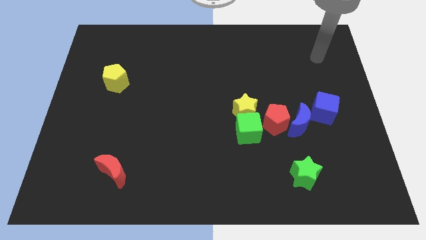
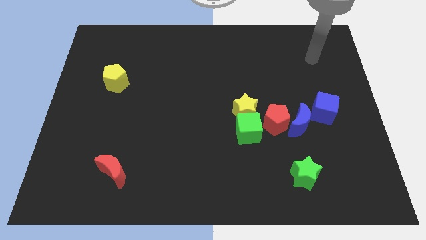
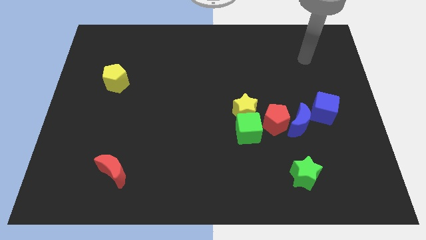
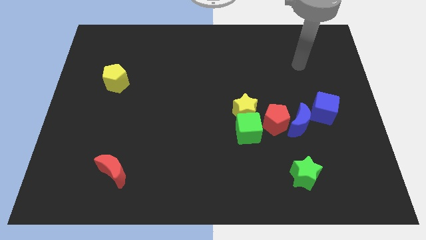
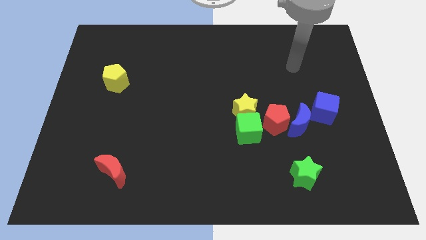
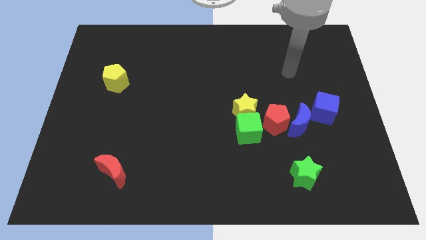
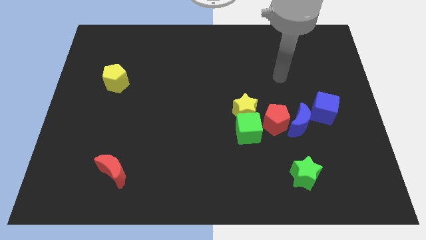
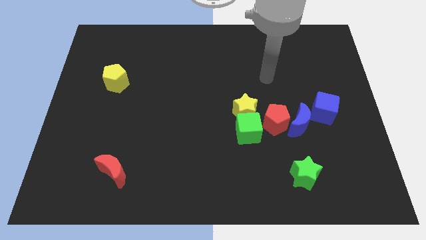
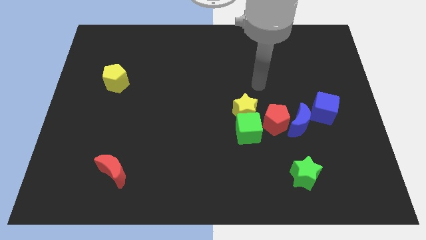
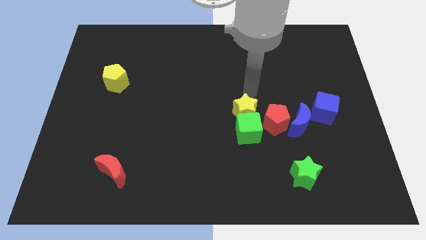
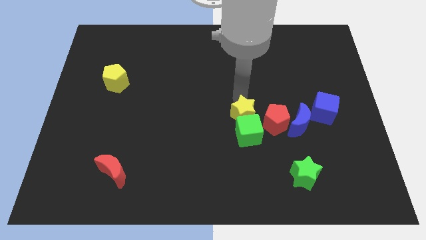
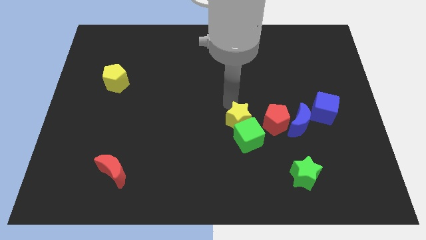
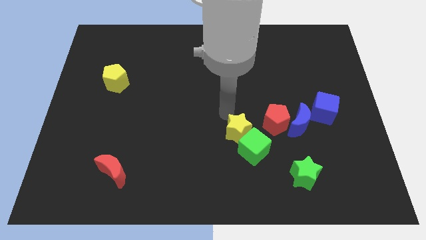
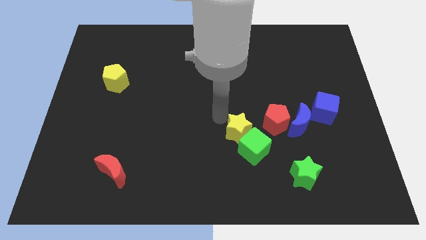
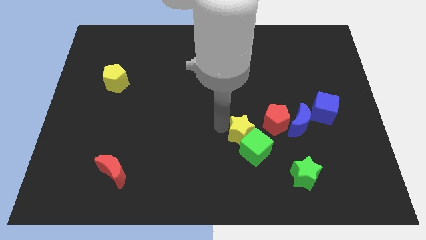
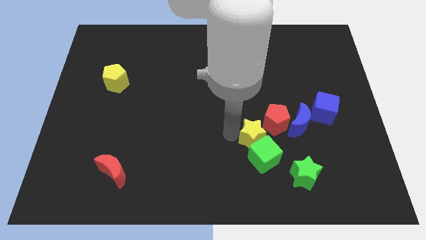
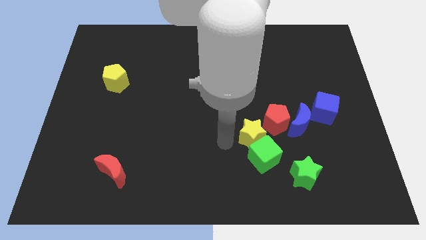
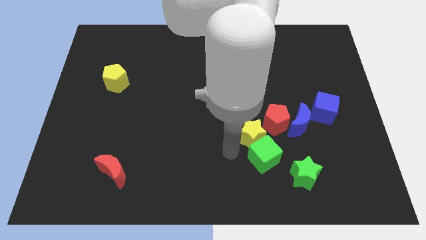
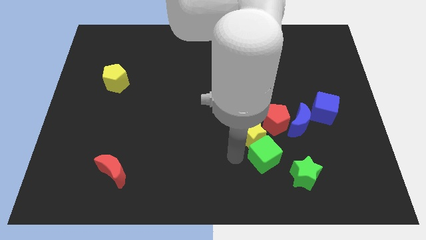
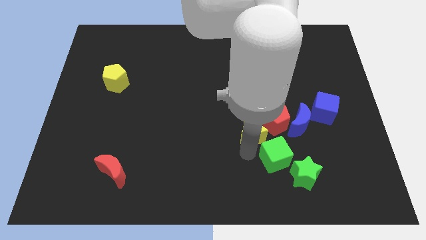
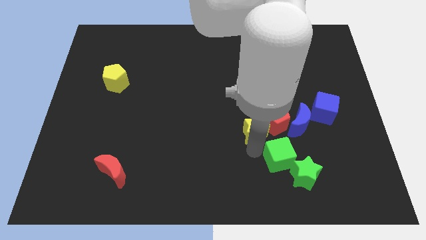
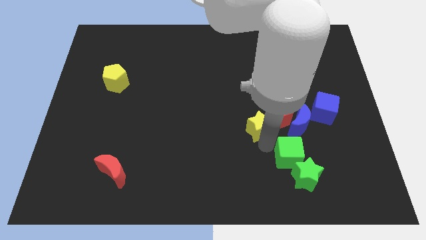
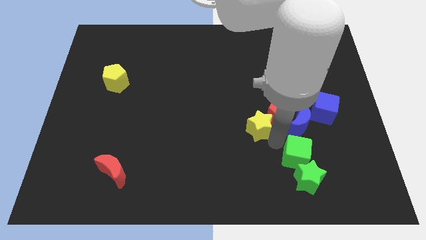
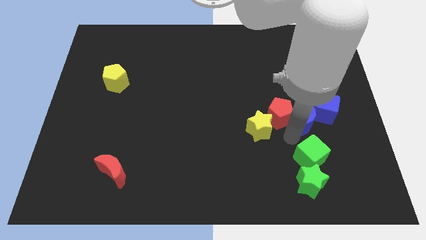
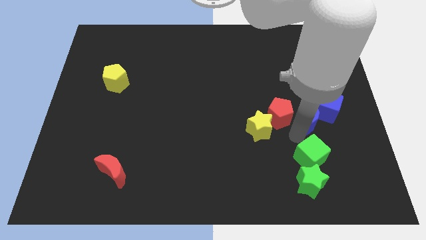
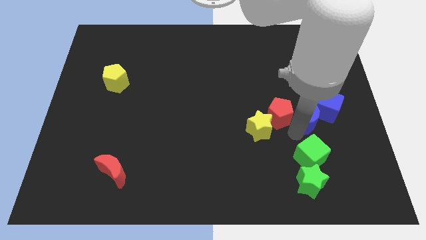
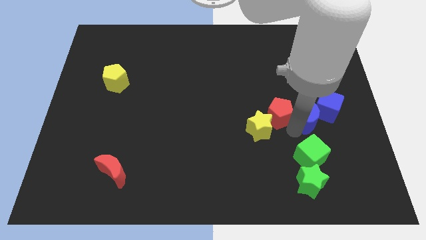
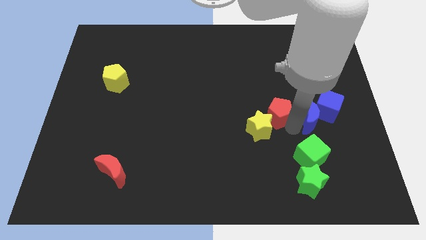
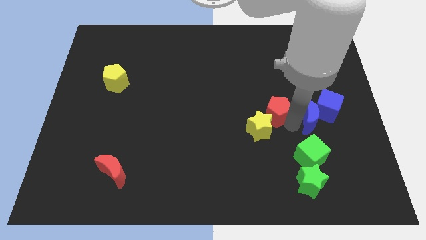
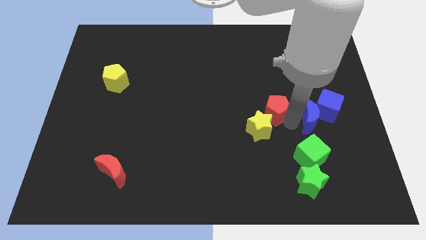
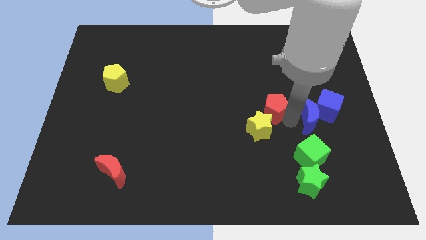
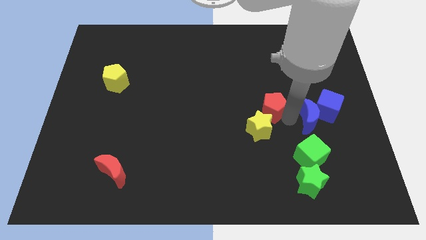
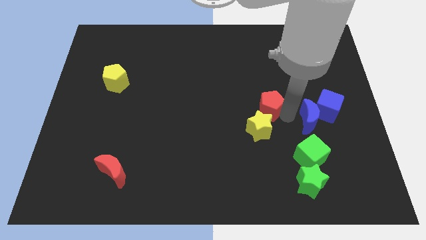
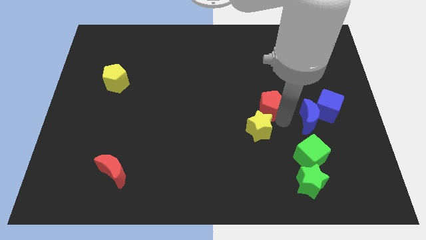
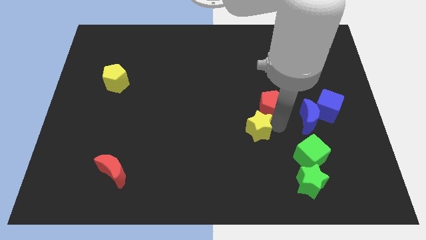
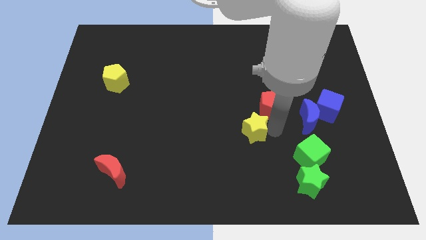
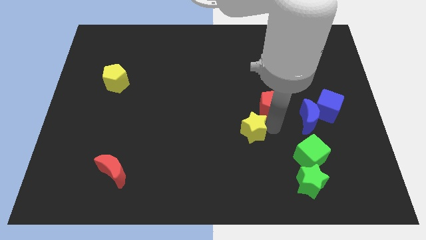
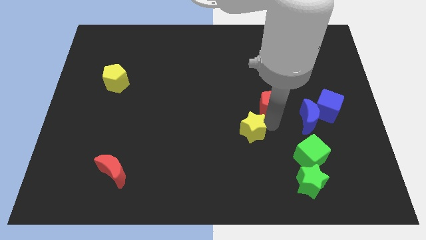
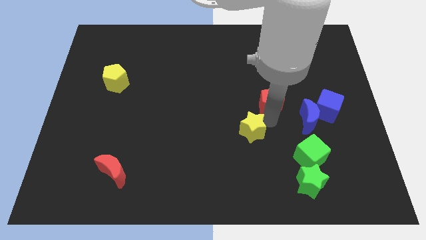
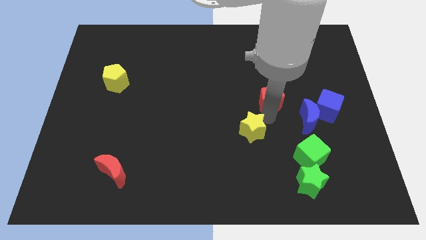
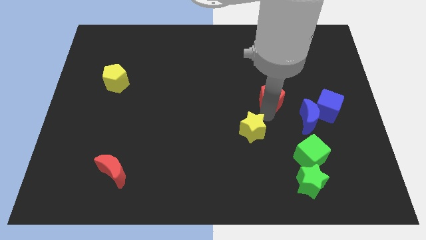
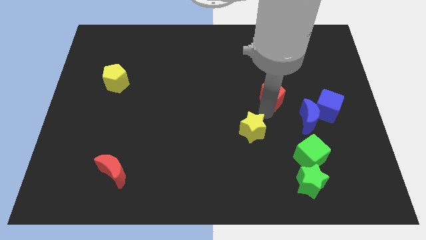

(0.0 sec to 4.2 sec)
push the red pentagon a little up

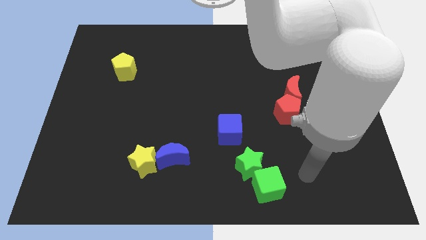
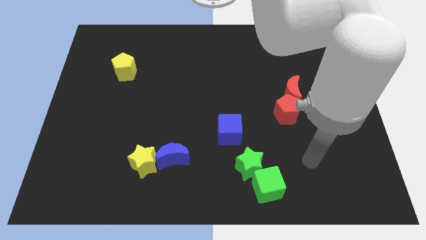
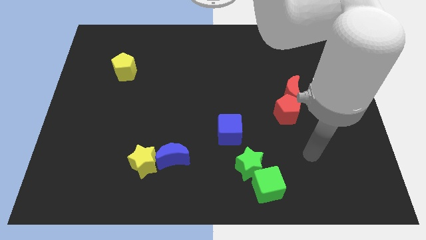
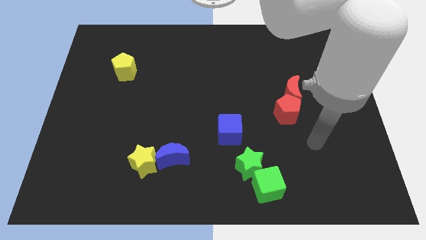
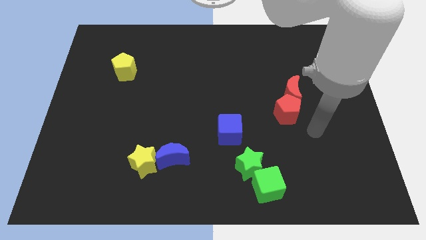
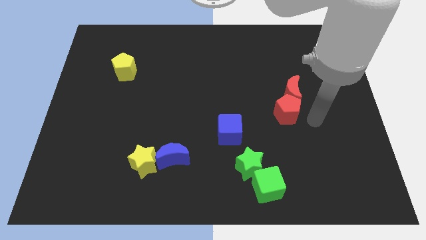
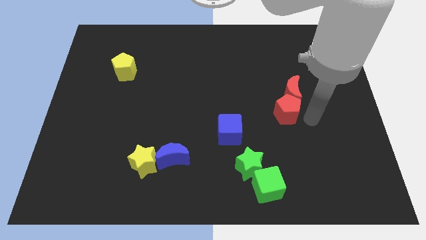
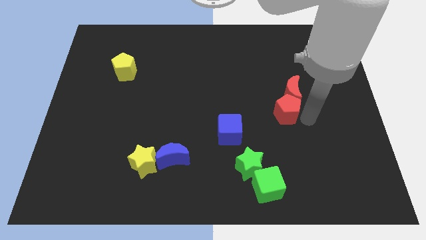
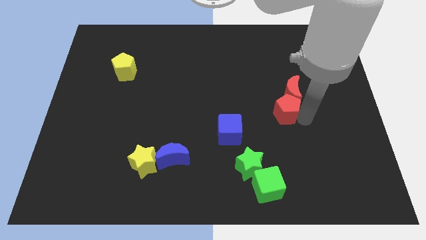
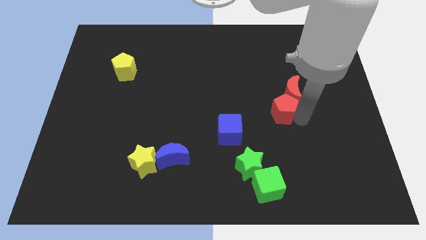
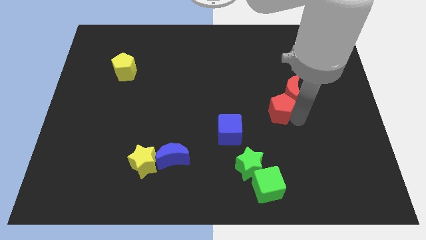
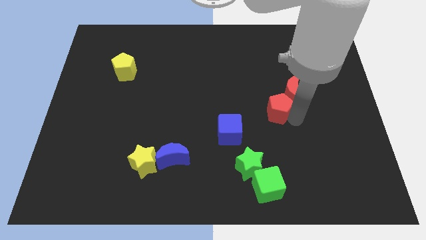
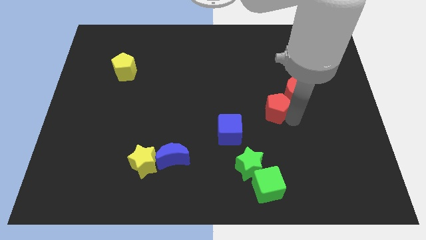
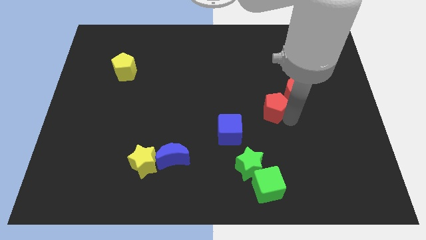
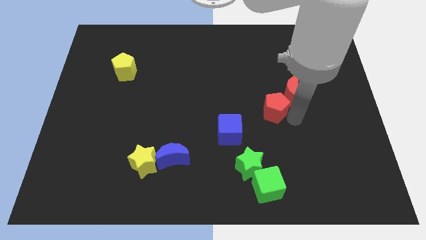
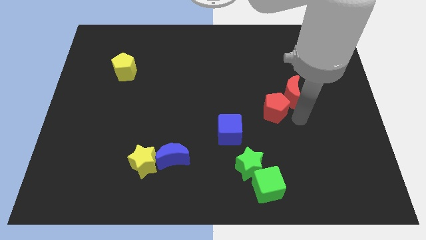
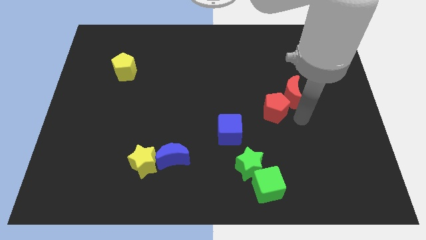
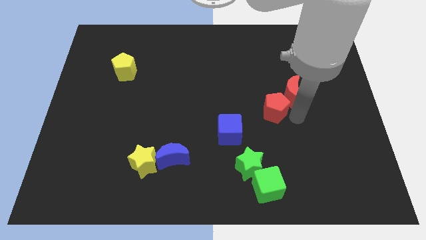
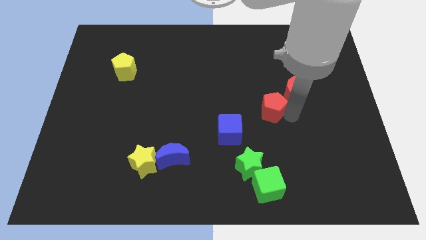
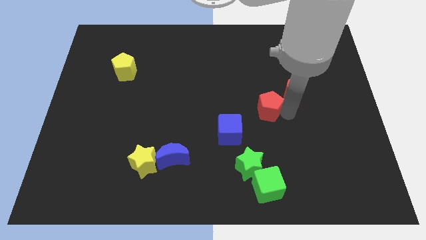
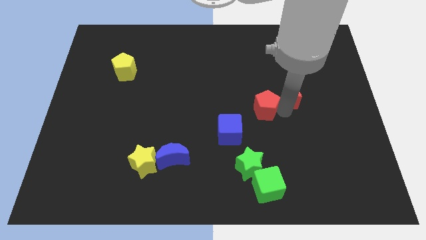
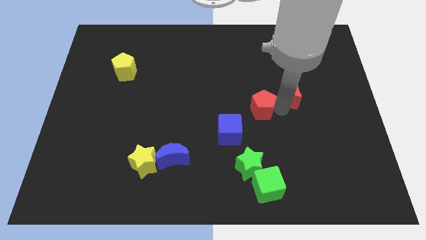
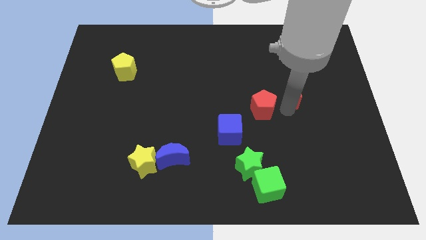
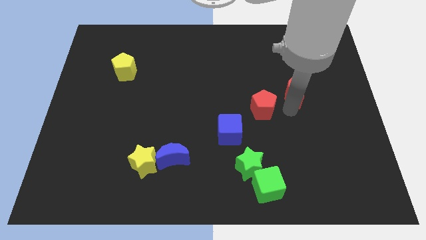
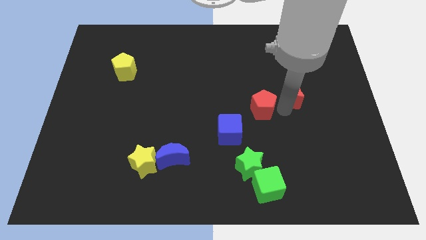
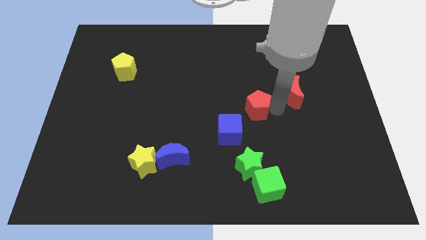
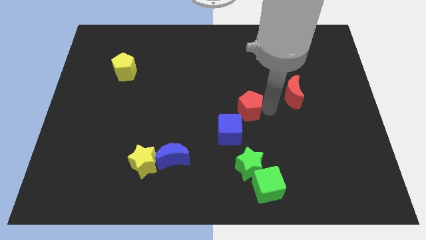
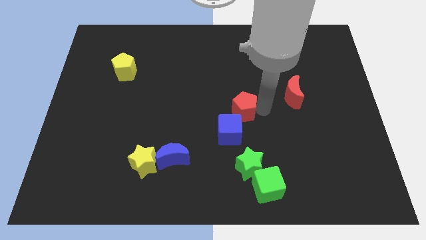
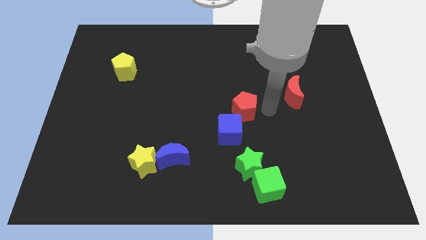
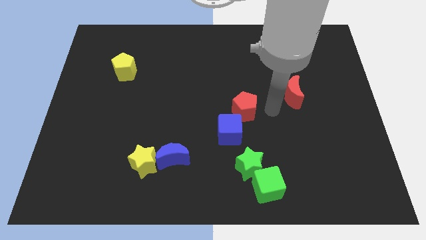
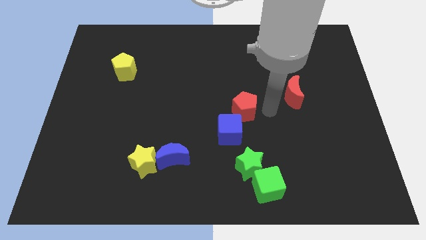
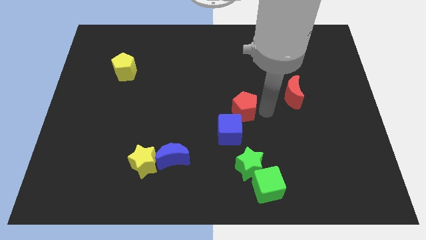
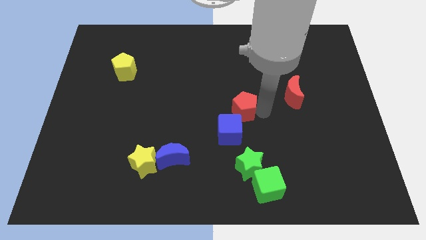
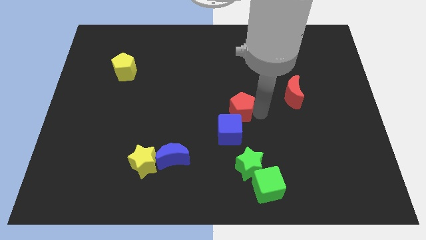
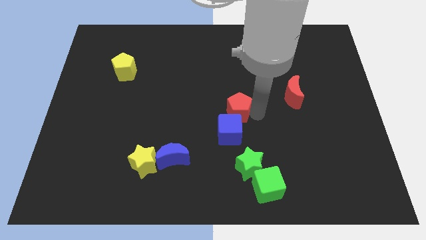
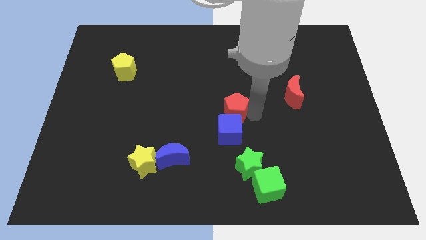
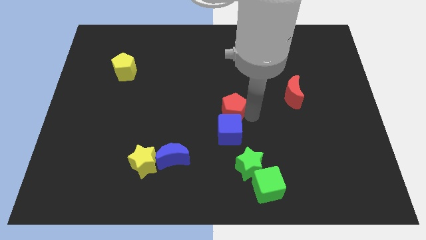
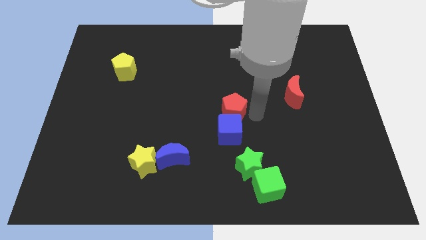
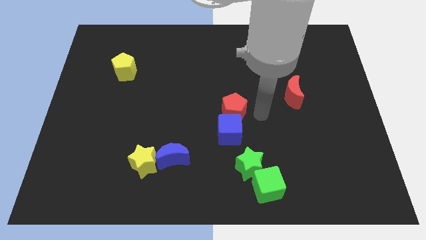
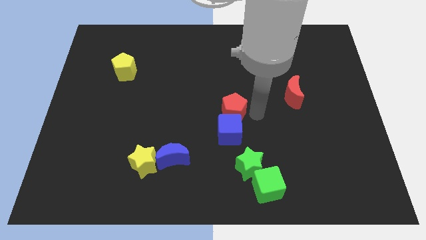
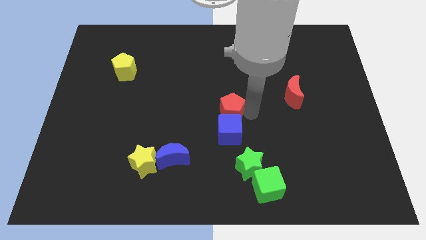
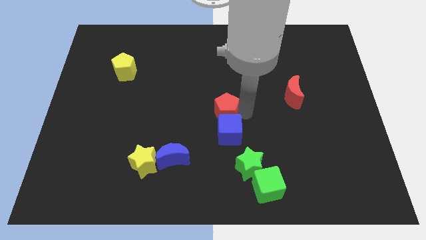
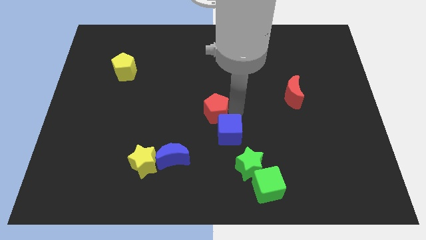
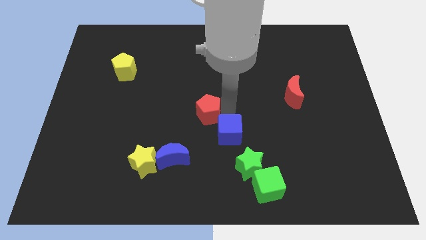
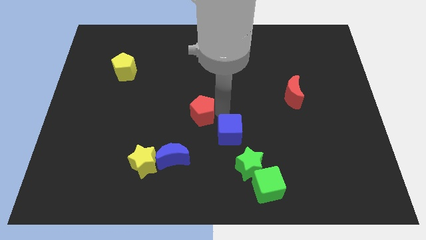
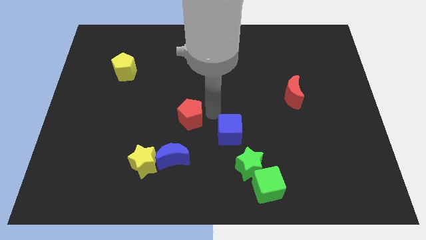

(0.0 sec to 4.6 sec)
slide the red pentagon left
